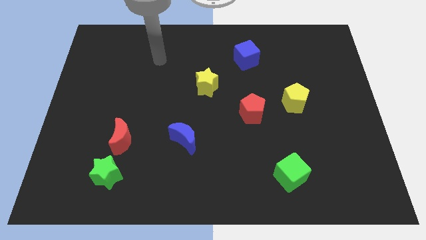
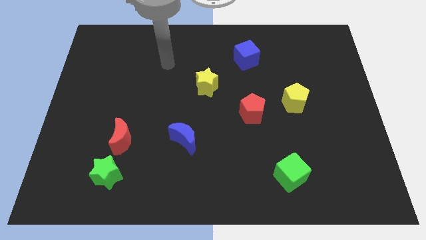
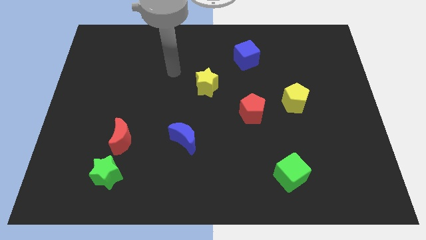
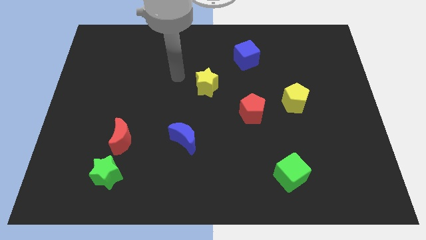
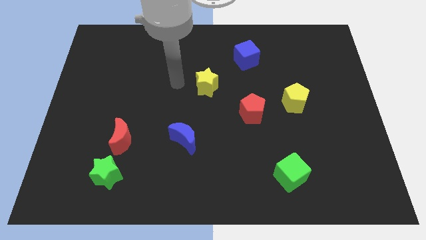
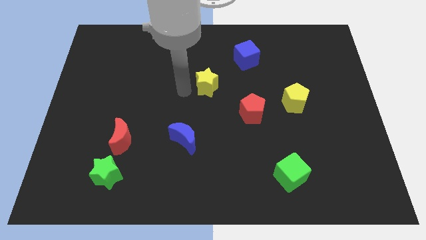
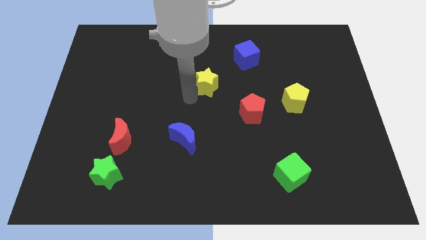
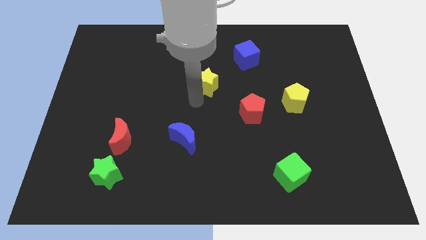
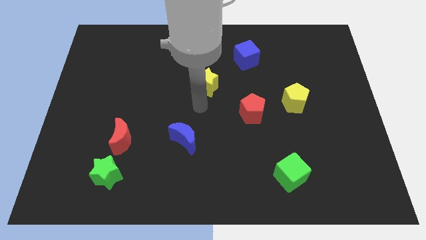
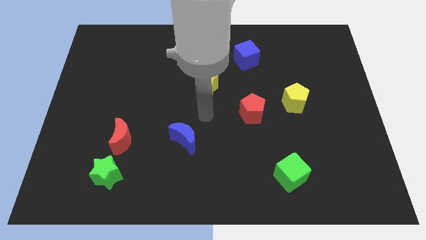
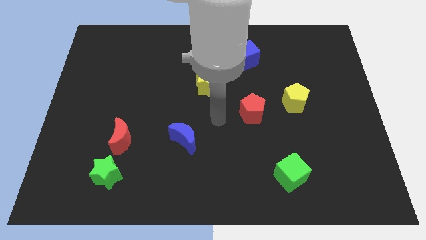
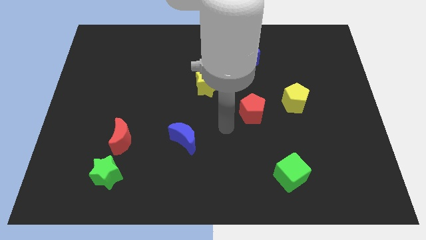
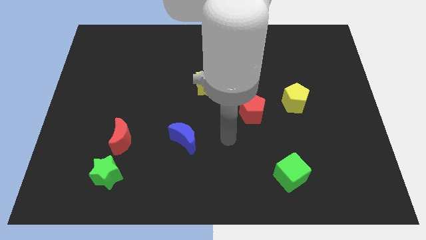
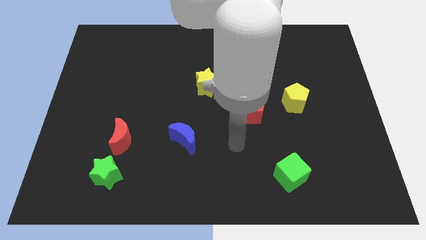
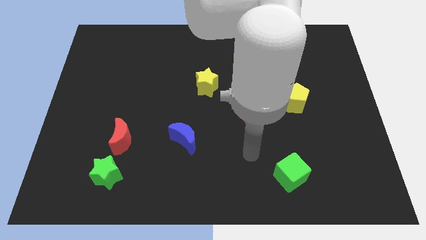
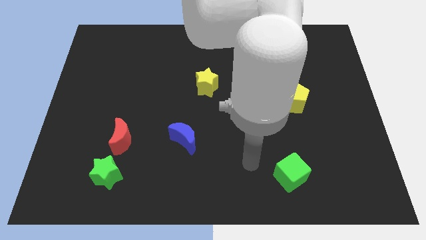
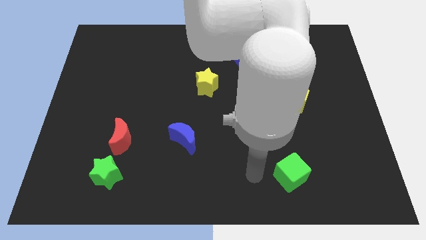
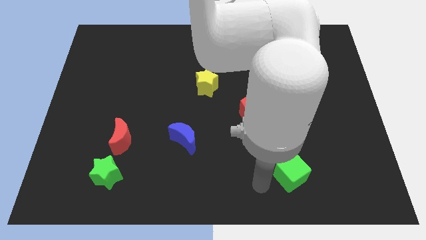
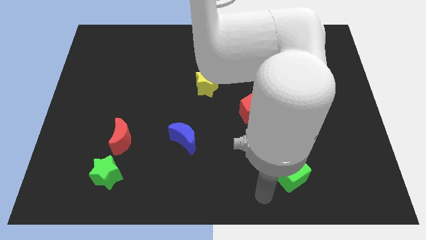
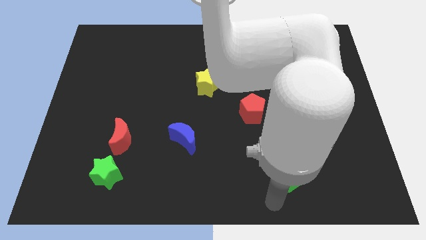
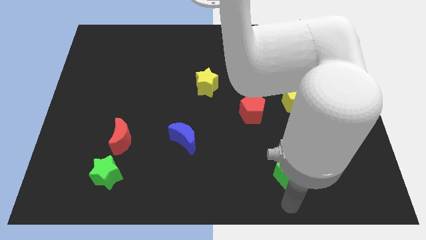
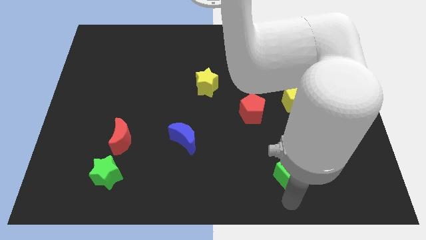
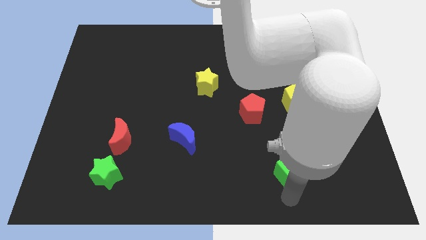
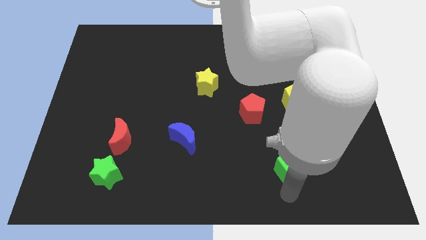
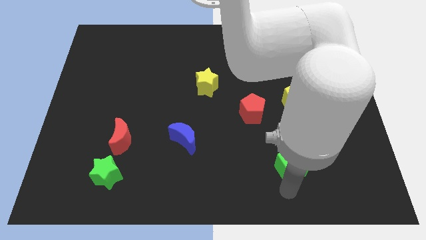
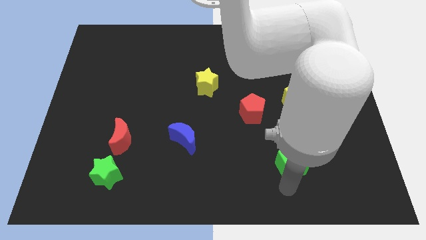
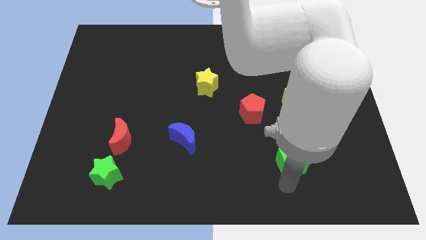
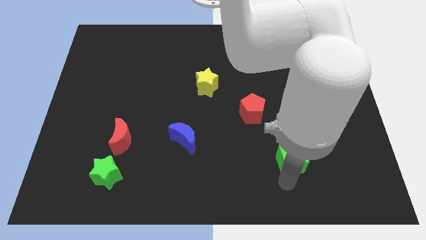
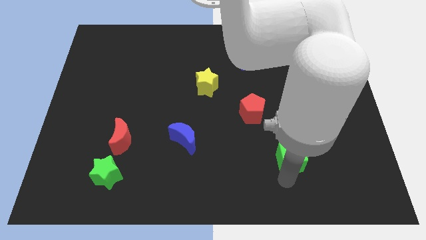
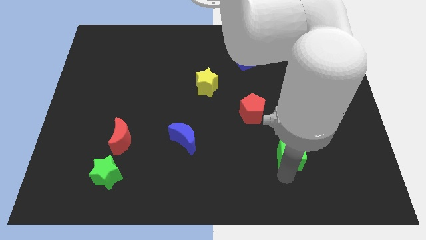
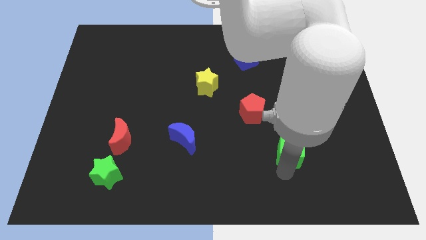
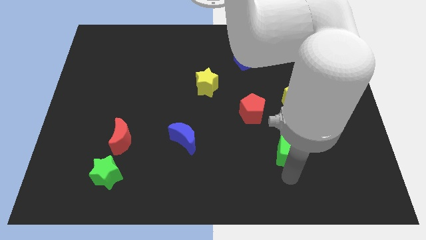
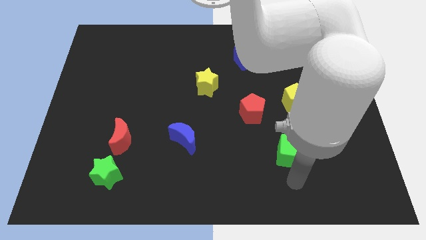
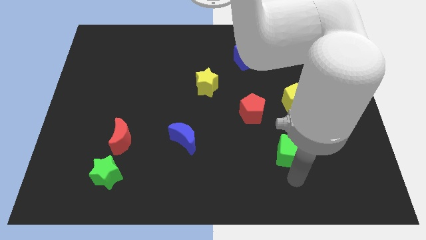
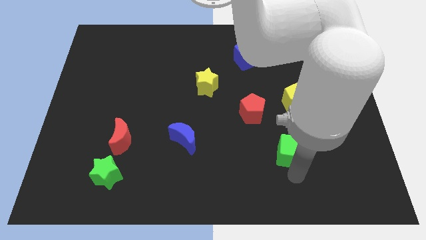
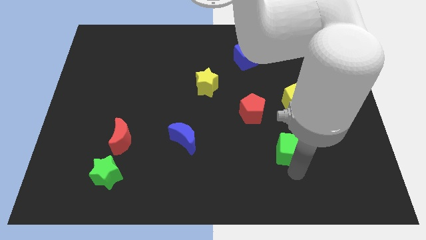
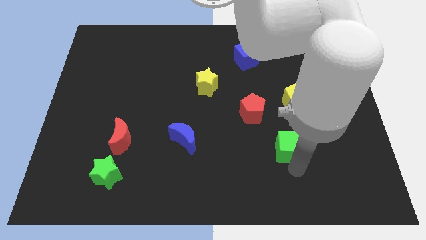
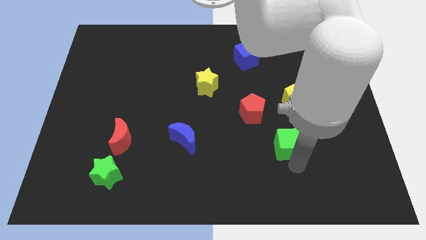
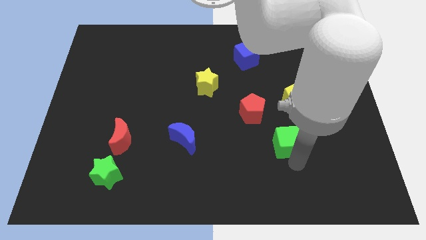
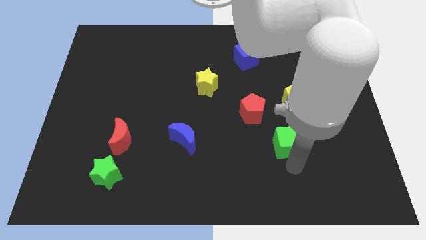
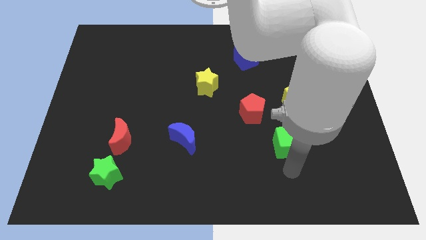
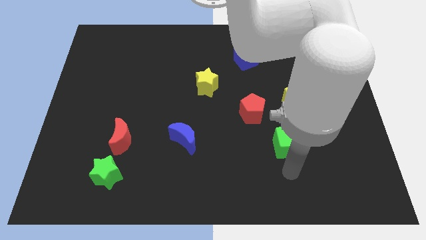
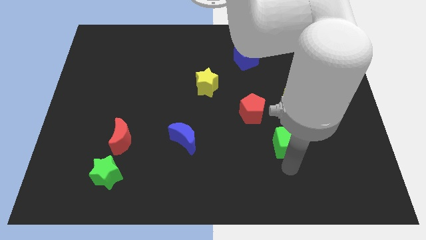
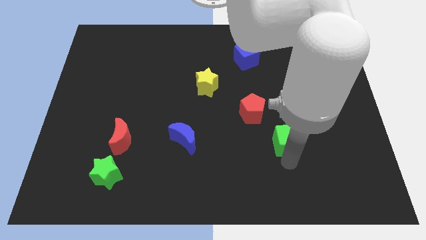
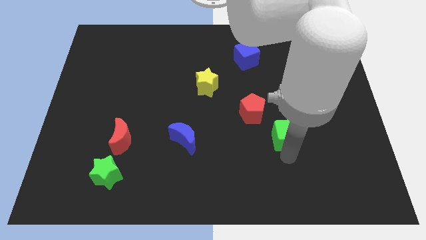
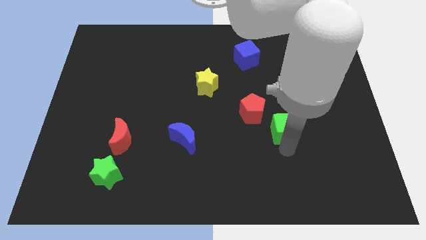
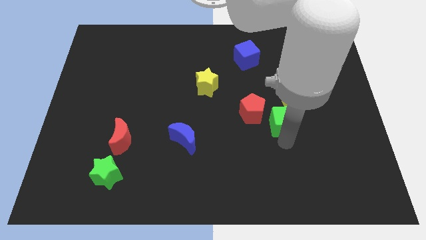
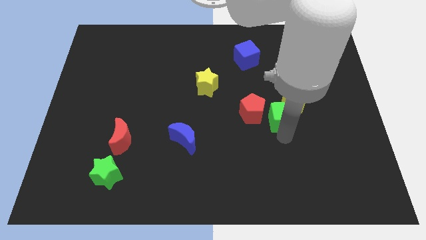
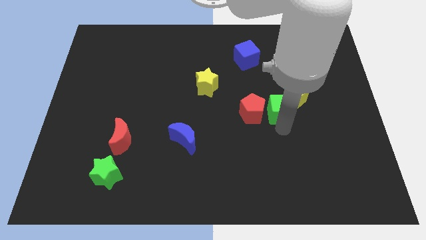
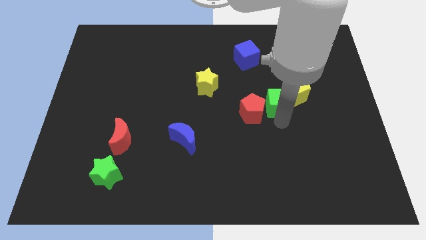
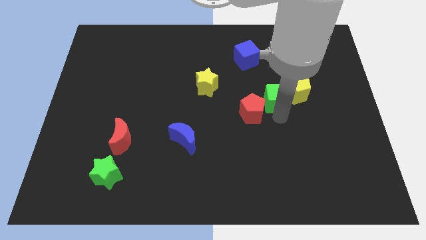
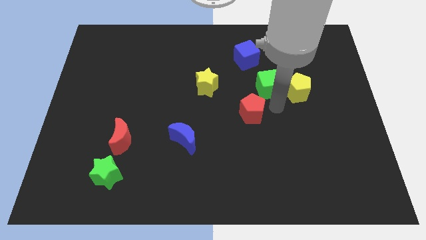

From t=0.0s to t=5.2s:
move the green cube up

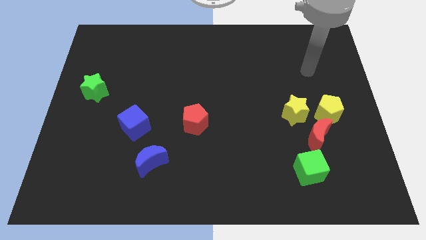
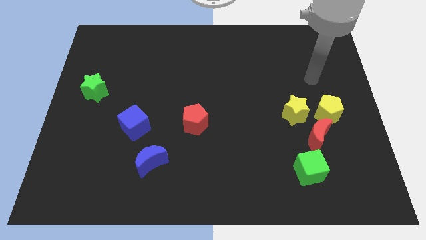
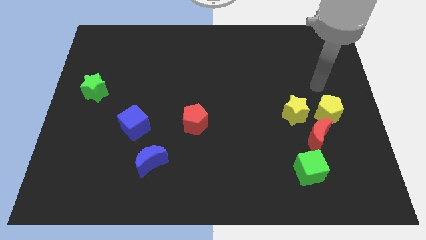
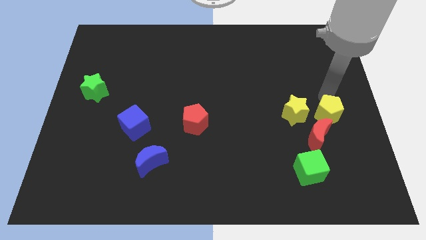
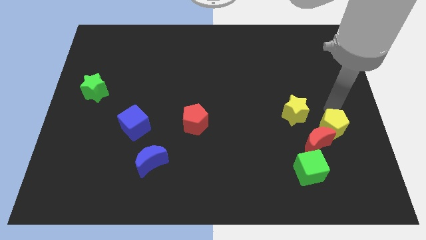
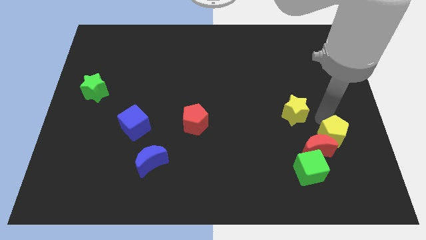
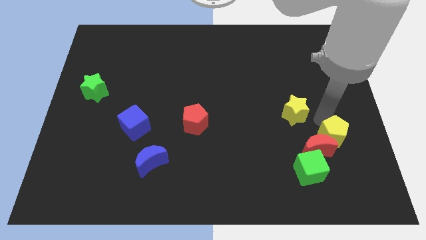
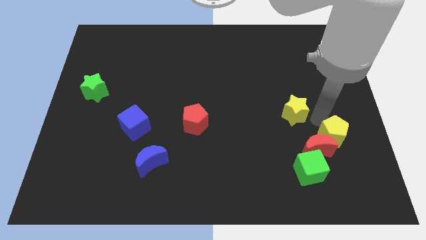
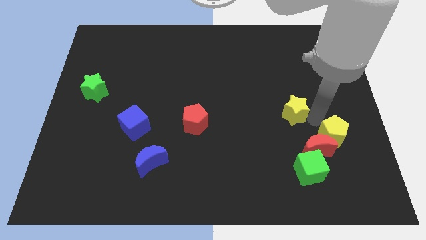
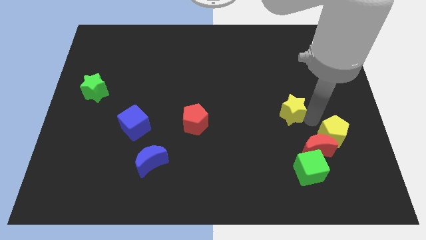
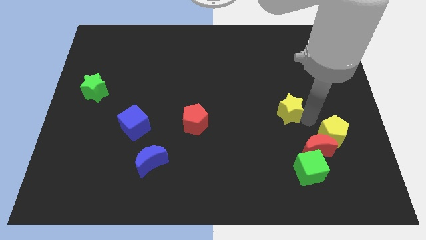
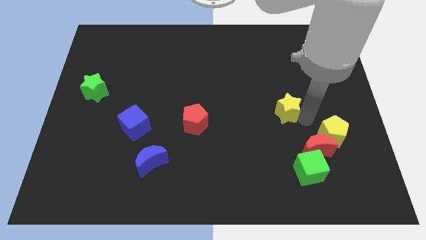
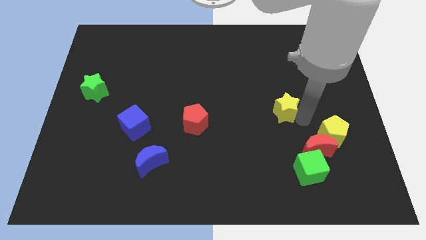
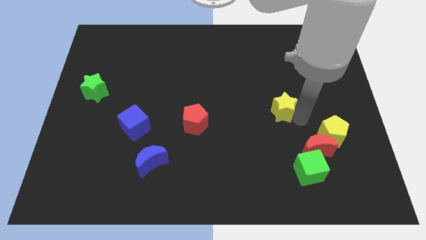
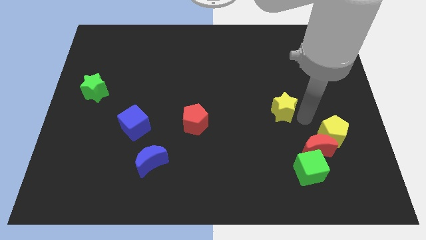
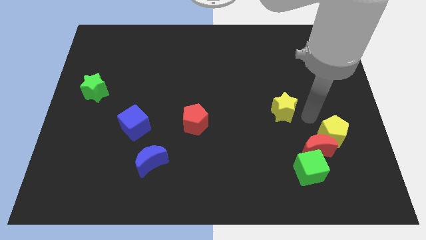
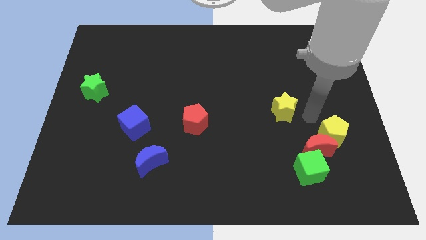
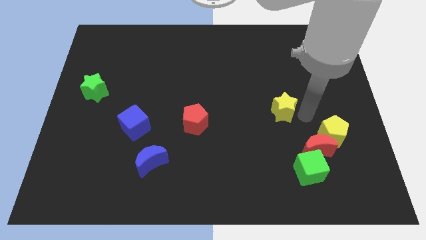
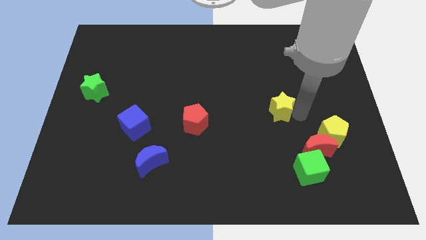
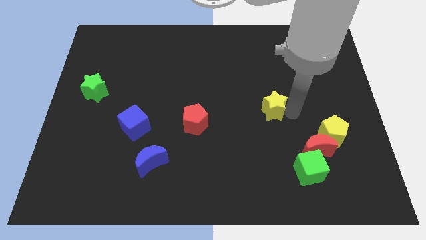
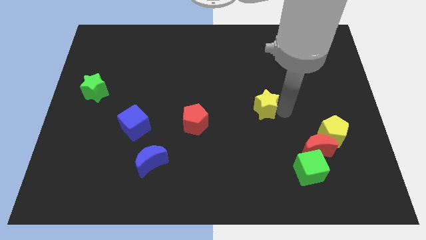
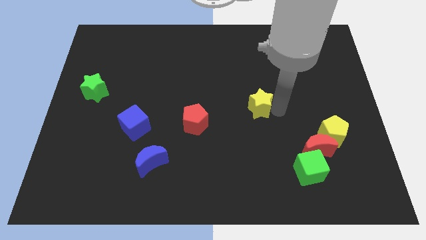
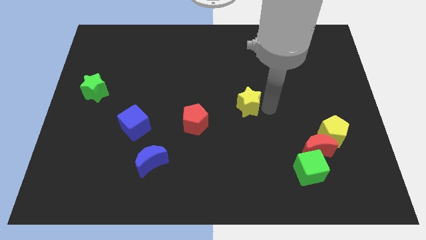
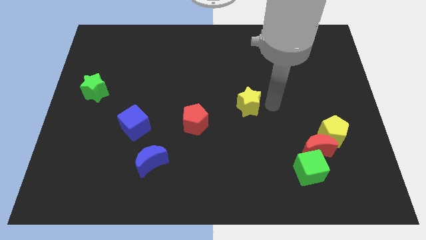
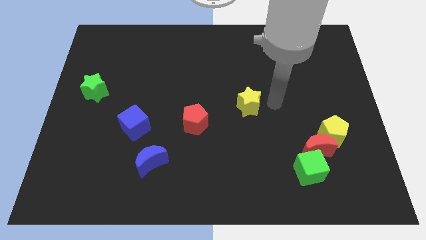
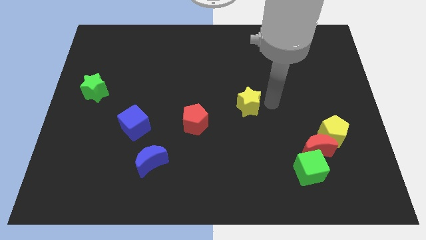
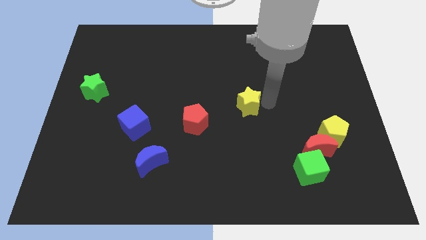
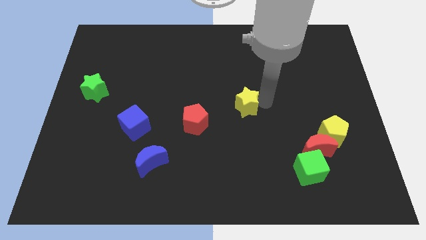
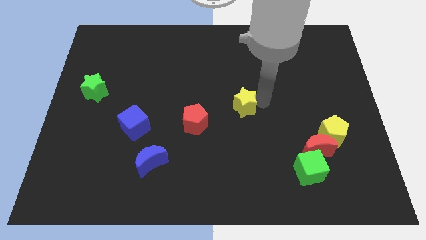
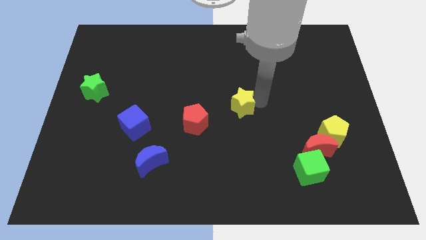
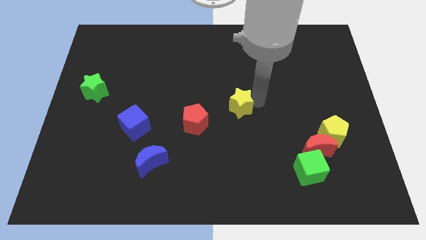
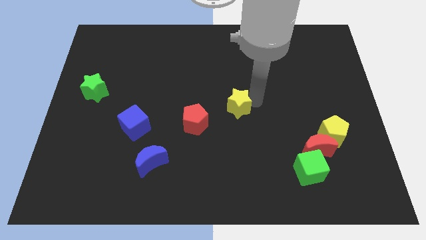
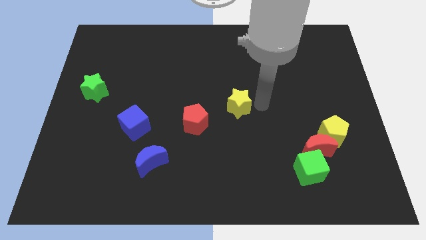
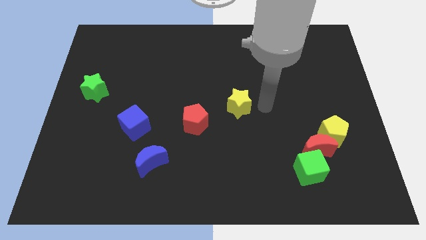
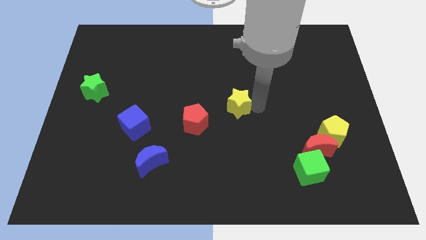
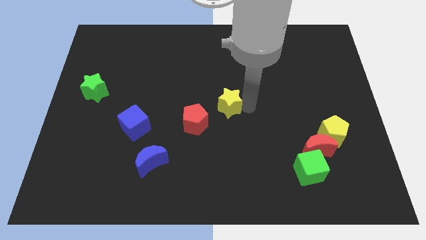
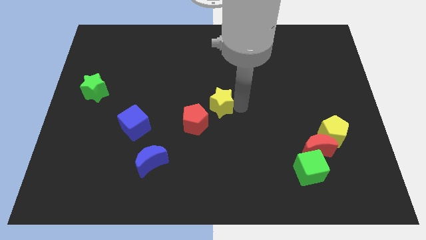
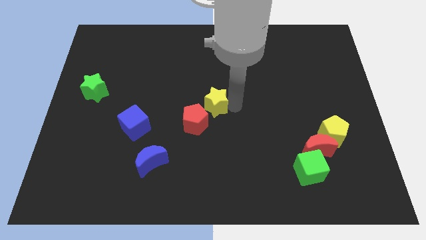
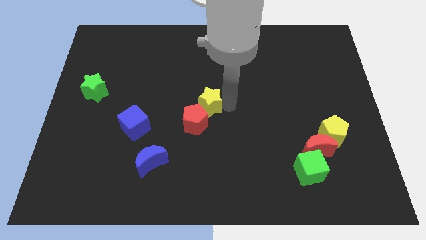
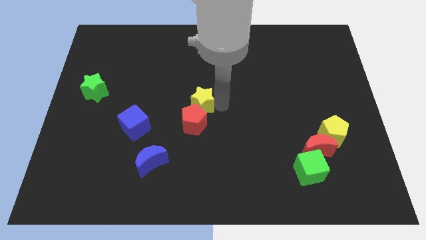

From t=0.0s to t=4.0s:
slide the yellow star to the left
